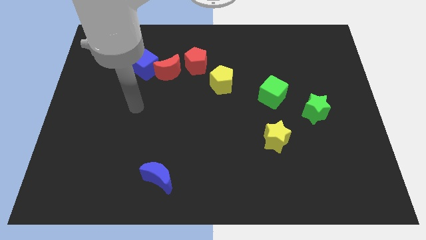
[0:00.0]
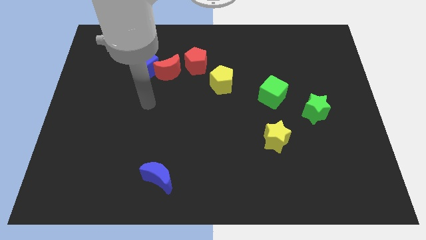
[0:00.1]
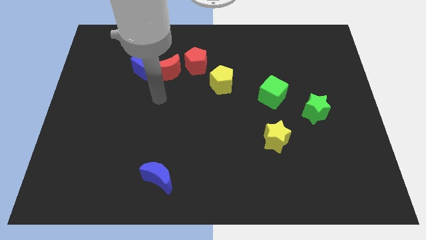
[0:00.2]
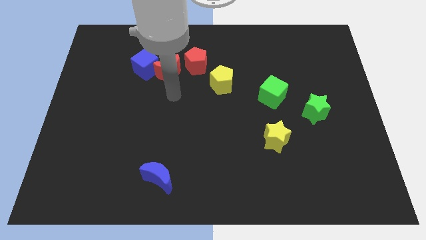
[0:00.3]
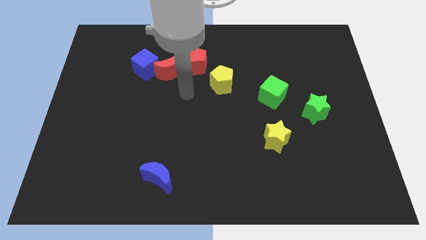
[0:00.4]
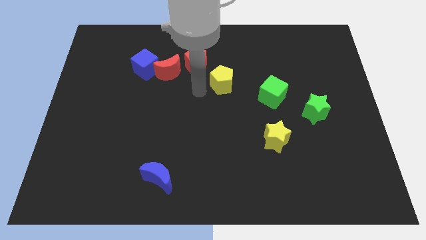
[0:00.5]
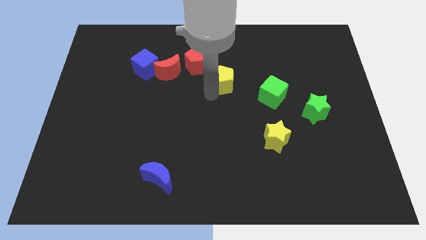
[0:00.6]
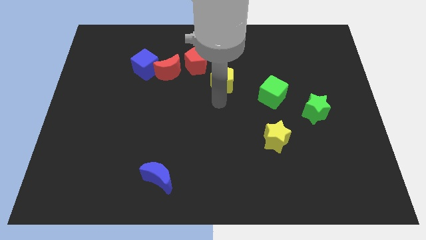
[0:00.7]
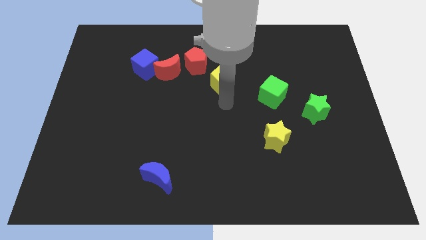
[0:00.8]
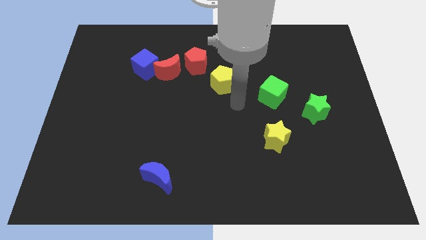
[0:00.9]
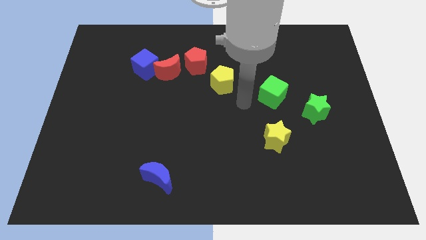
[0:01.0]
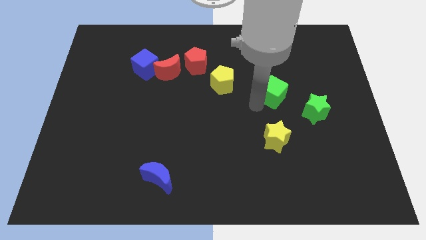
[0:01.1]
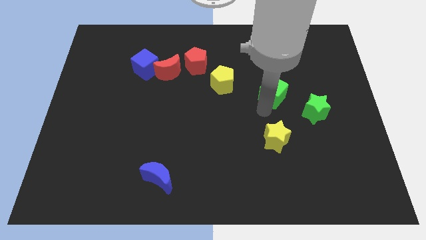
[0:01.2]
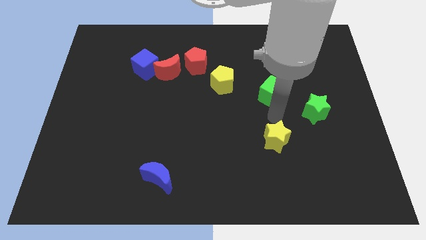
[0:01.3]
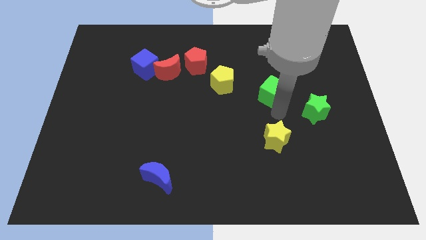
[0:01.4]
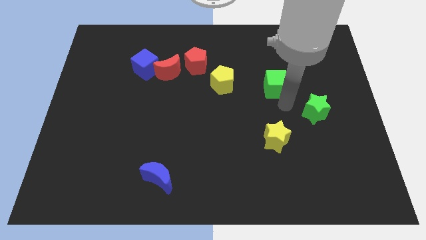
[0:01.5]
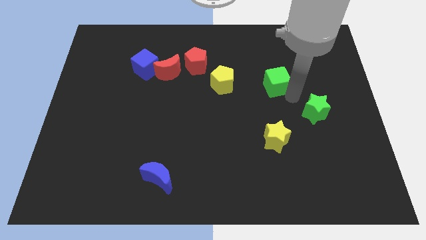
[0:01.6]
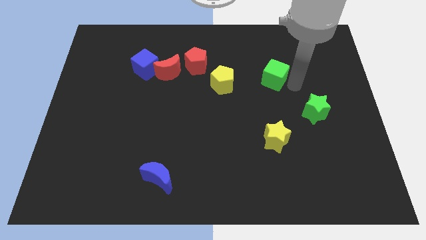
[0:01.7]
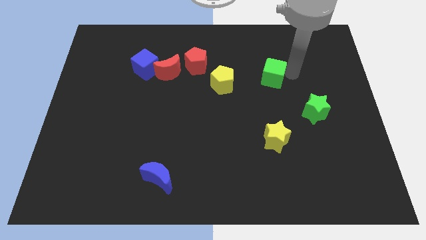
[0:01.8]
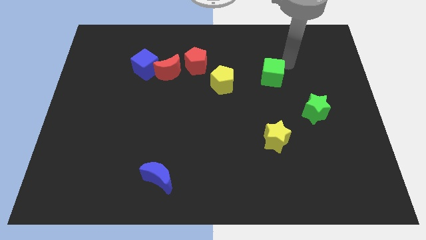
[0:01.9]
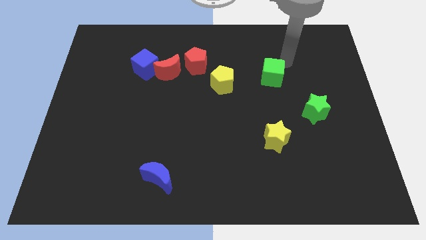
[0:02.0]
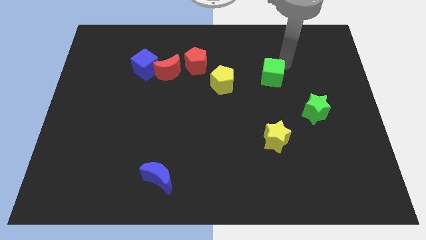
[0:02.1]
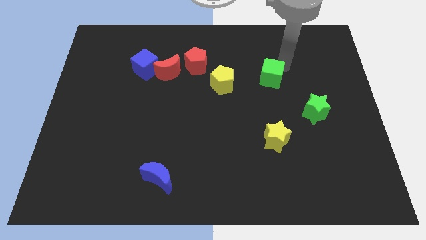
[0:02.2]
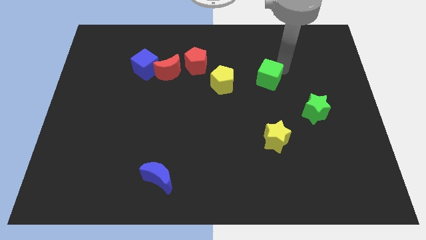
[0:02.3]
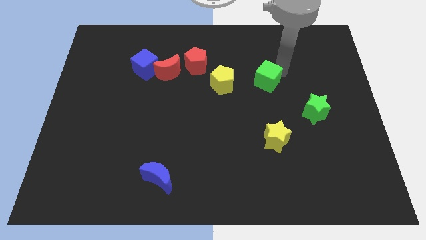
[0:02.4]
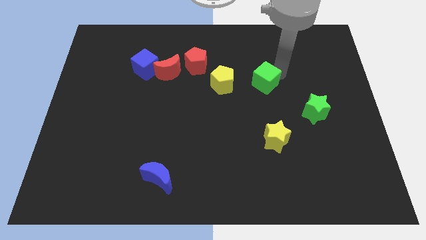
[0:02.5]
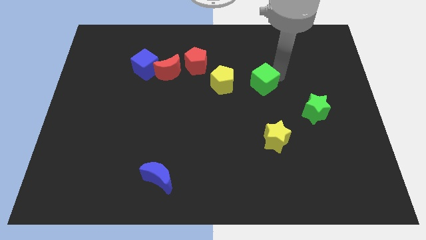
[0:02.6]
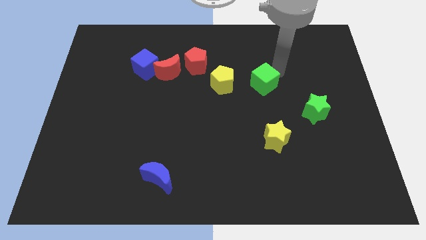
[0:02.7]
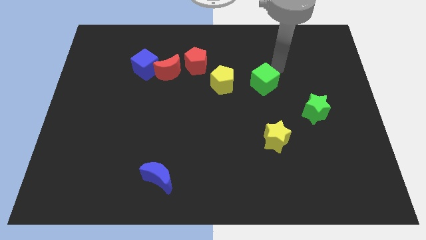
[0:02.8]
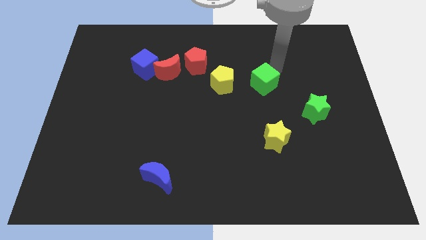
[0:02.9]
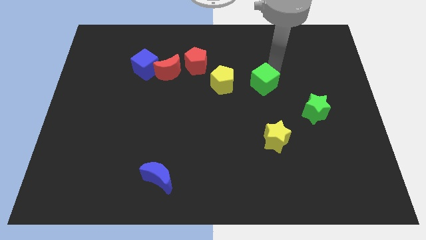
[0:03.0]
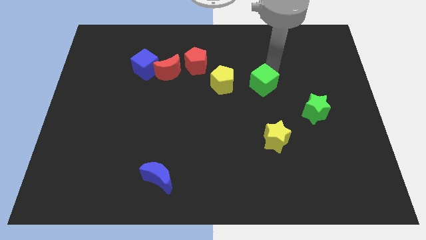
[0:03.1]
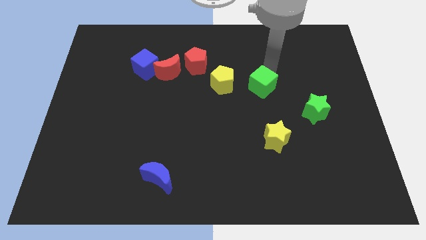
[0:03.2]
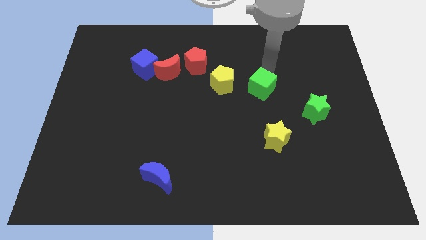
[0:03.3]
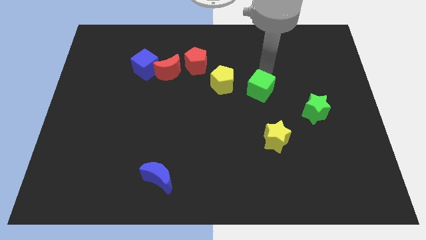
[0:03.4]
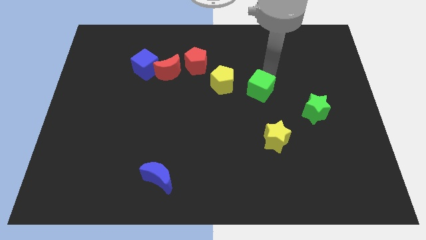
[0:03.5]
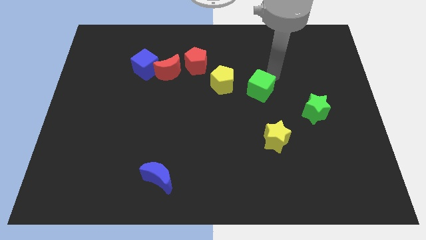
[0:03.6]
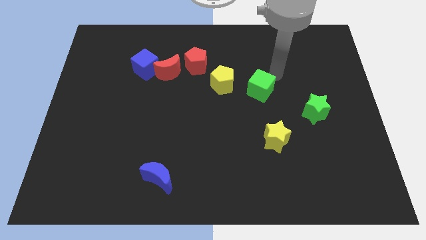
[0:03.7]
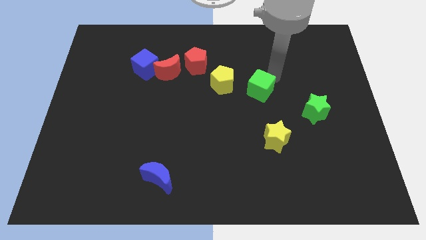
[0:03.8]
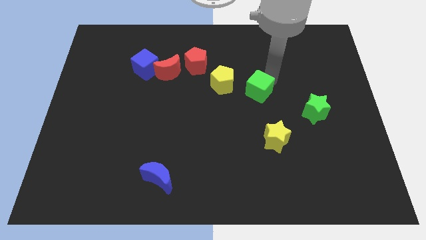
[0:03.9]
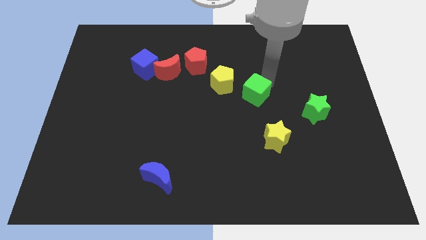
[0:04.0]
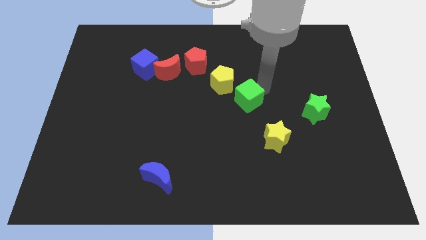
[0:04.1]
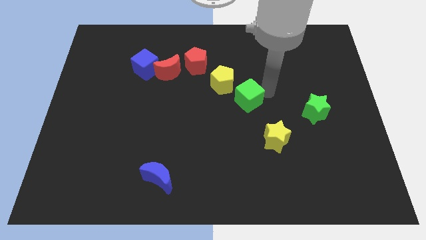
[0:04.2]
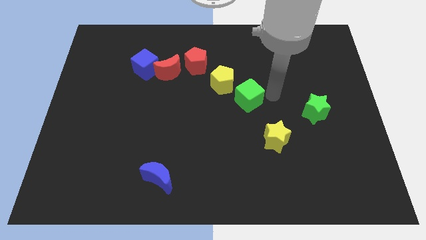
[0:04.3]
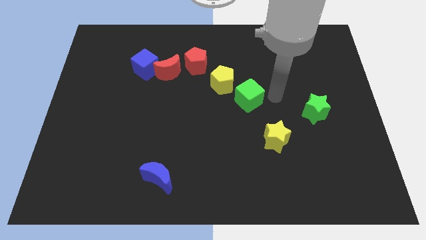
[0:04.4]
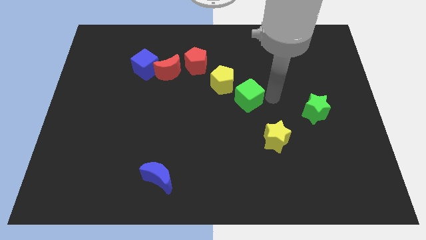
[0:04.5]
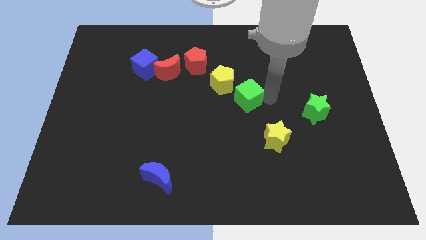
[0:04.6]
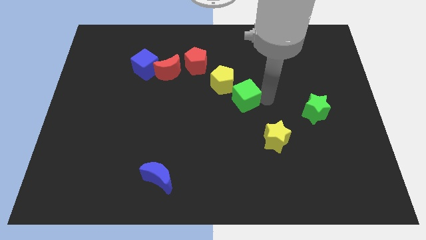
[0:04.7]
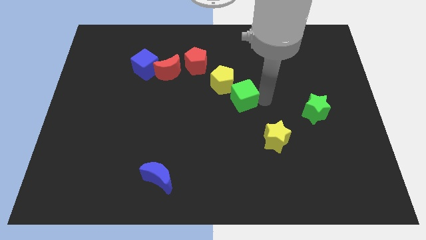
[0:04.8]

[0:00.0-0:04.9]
slide the green cube a bit left

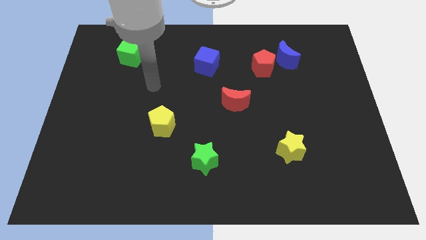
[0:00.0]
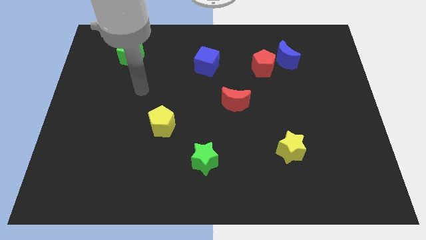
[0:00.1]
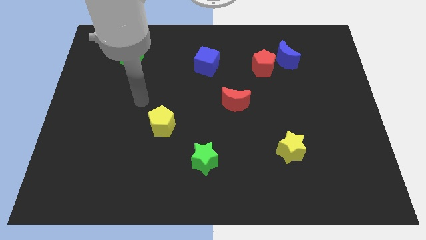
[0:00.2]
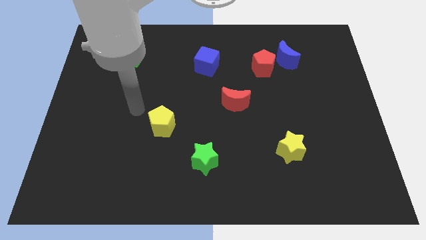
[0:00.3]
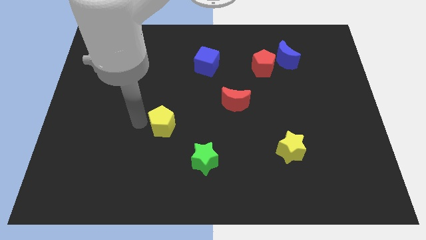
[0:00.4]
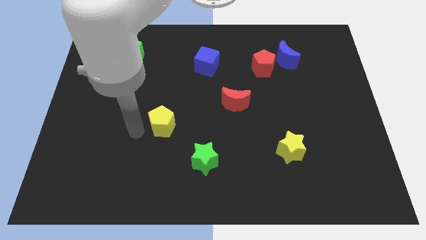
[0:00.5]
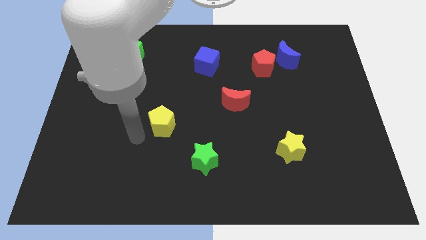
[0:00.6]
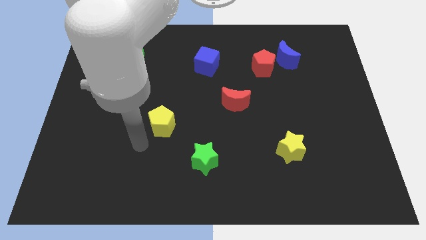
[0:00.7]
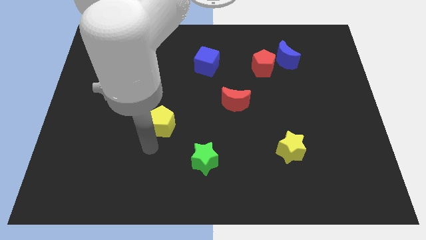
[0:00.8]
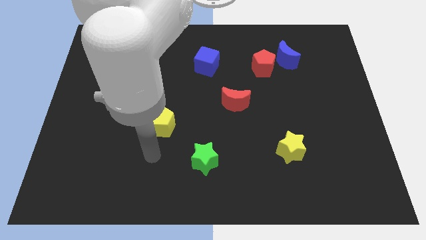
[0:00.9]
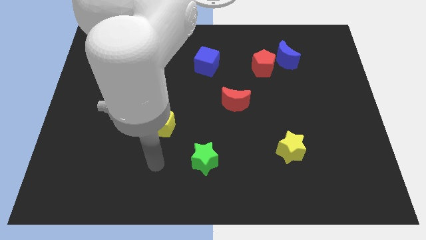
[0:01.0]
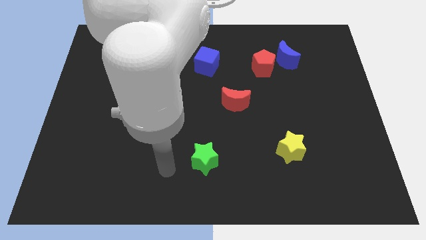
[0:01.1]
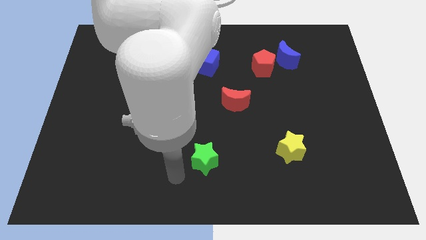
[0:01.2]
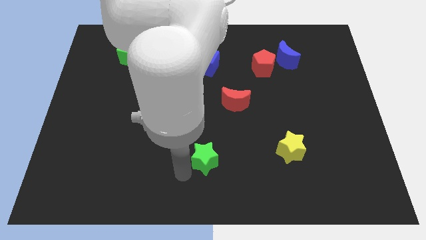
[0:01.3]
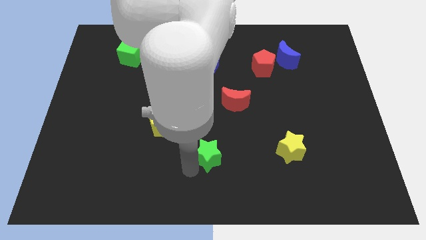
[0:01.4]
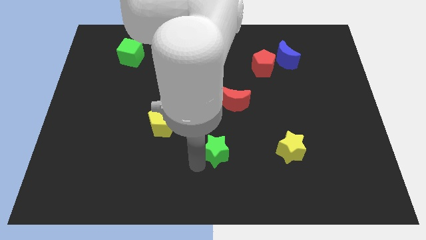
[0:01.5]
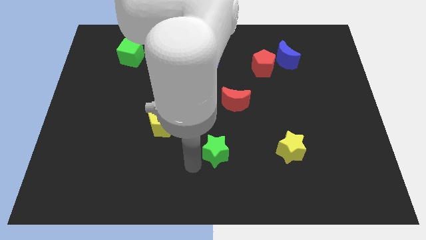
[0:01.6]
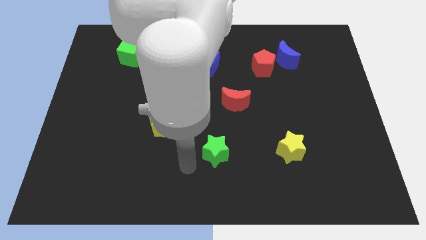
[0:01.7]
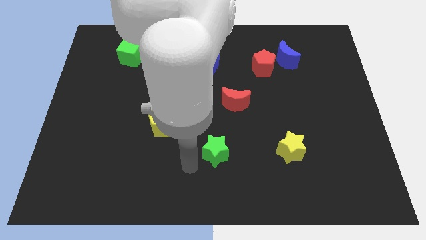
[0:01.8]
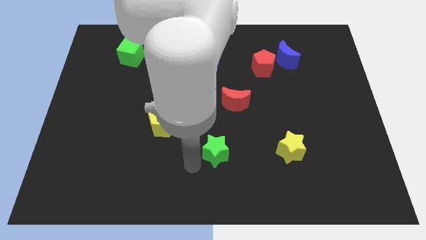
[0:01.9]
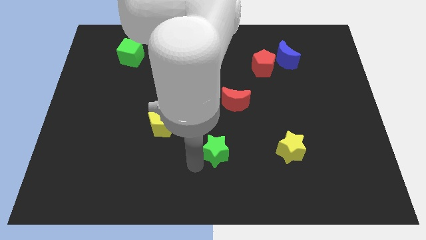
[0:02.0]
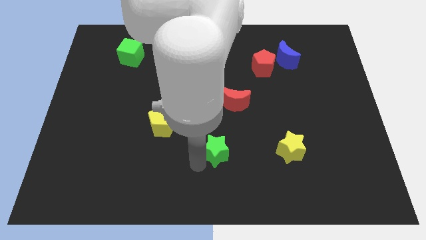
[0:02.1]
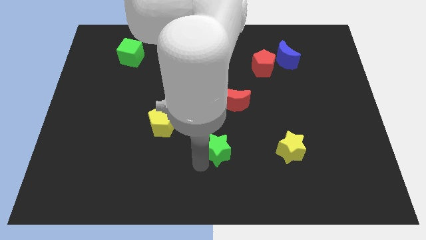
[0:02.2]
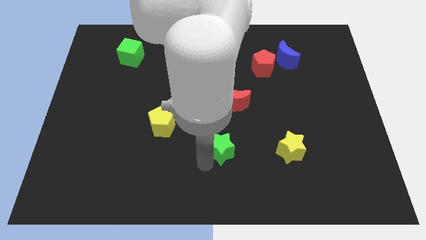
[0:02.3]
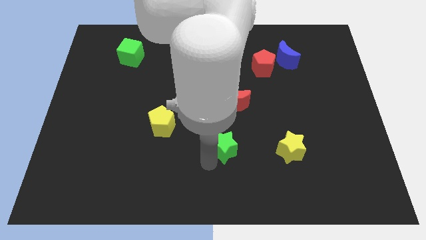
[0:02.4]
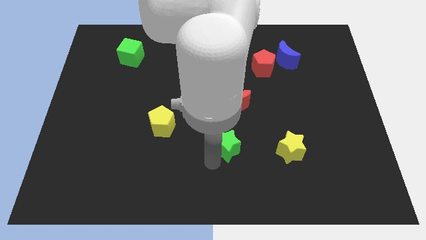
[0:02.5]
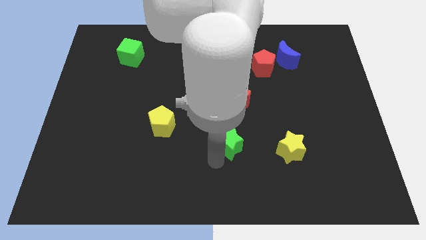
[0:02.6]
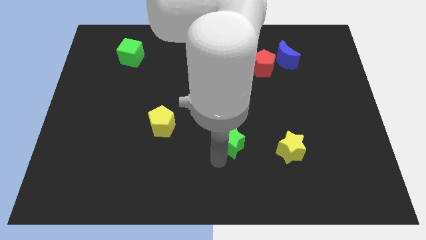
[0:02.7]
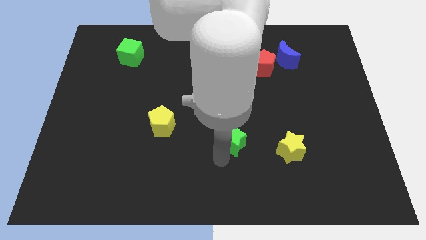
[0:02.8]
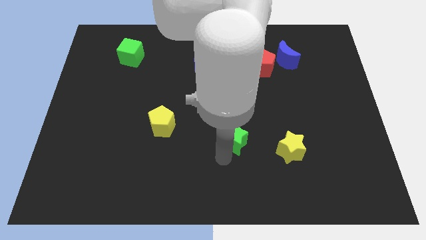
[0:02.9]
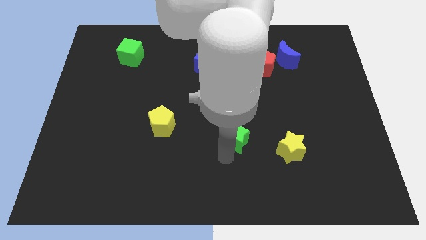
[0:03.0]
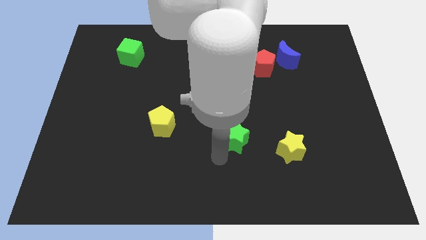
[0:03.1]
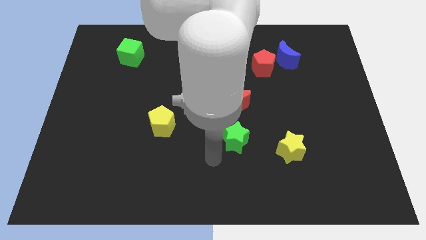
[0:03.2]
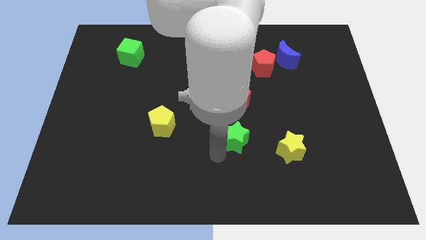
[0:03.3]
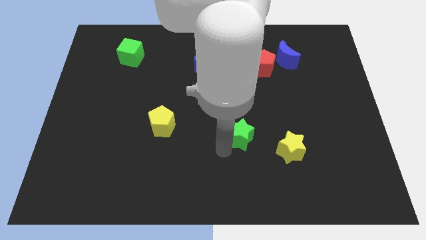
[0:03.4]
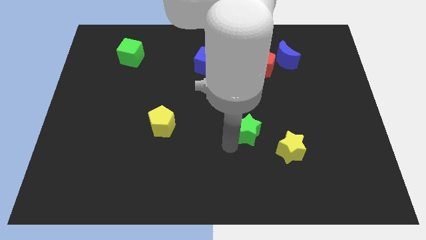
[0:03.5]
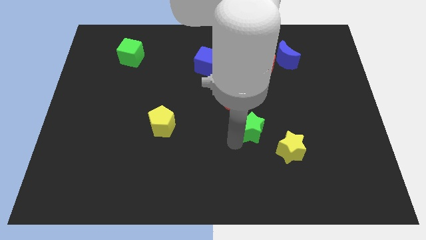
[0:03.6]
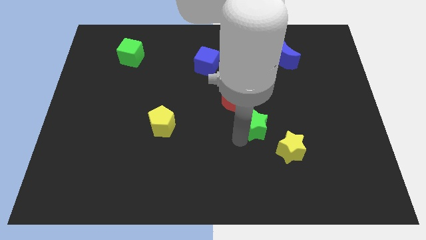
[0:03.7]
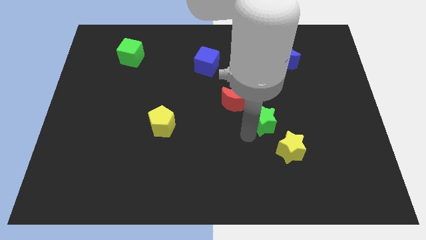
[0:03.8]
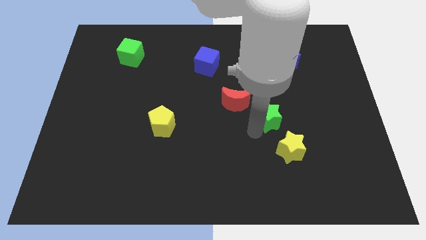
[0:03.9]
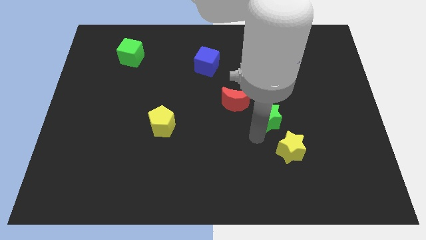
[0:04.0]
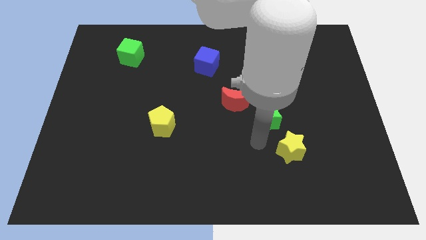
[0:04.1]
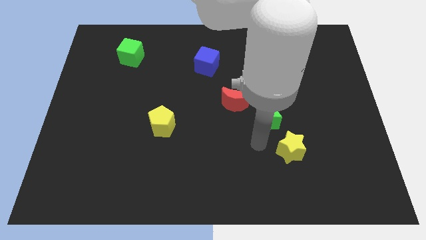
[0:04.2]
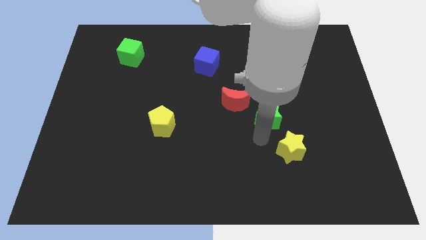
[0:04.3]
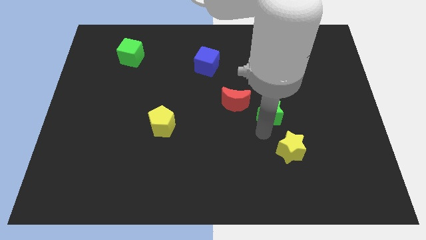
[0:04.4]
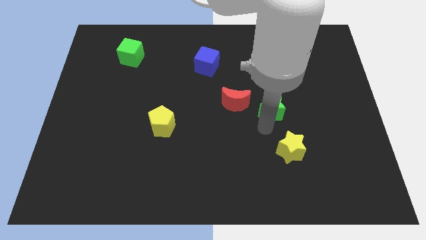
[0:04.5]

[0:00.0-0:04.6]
push the green star diagonally upwards and to the right
